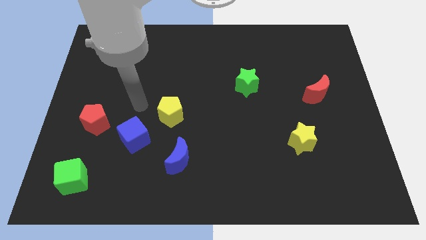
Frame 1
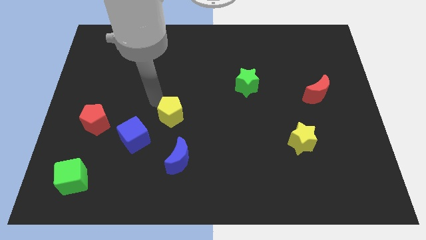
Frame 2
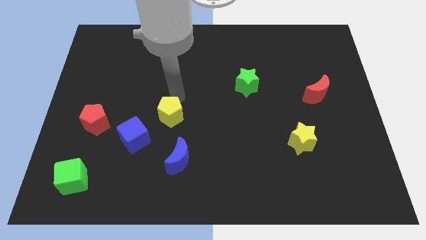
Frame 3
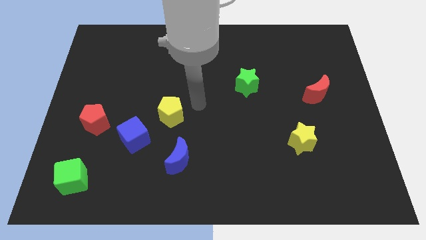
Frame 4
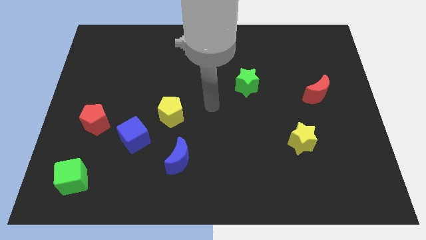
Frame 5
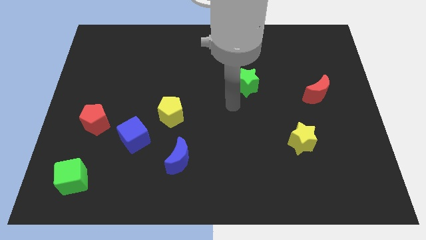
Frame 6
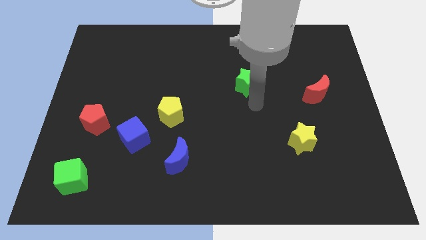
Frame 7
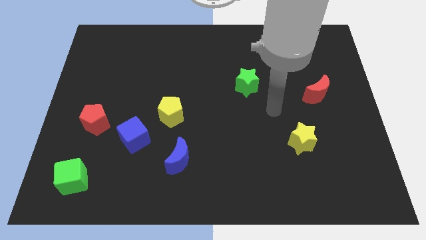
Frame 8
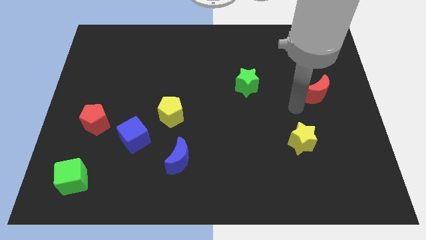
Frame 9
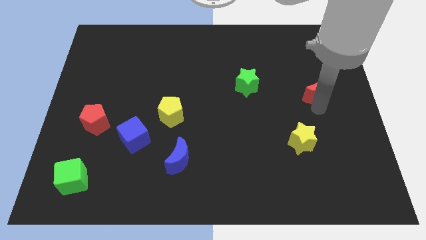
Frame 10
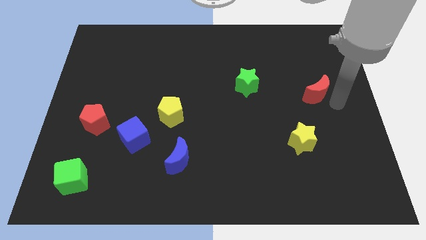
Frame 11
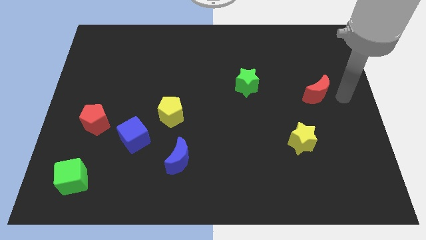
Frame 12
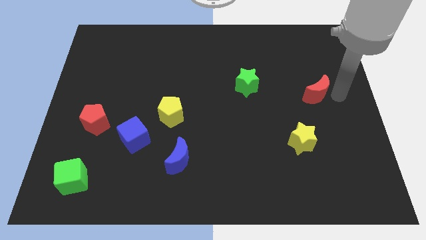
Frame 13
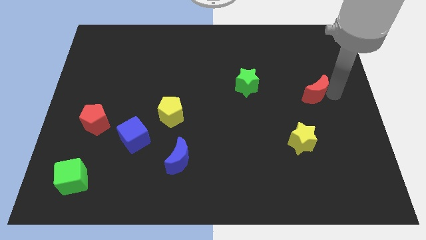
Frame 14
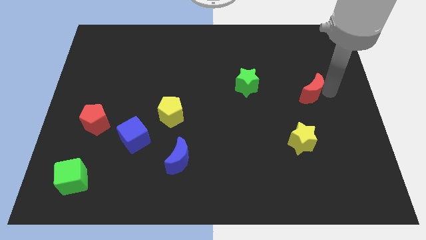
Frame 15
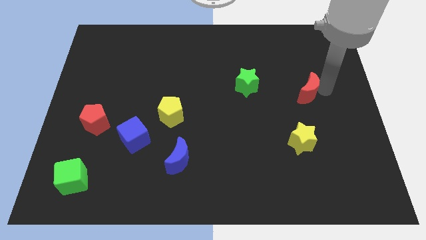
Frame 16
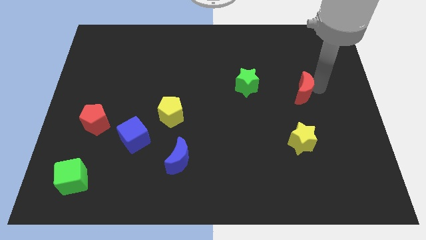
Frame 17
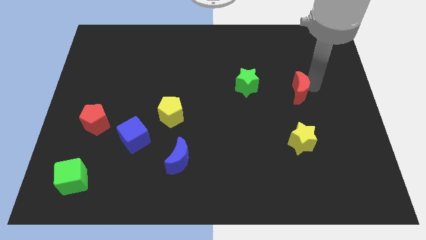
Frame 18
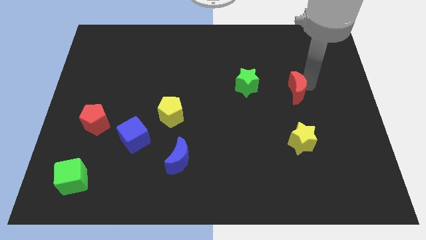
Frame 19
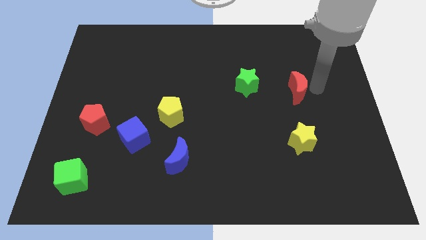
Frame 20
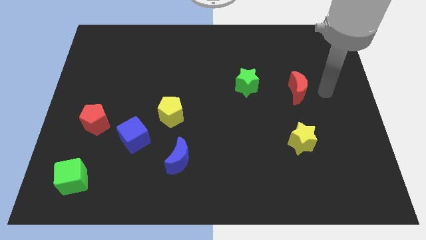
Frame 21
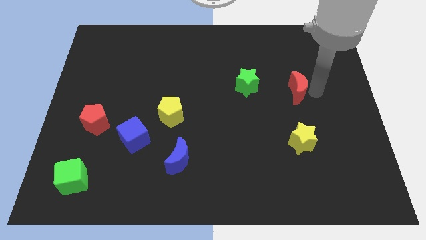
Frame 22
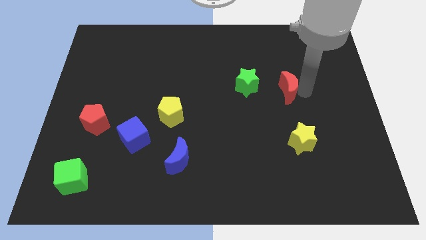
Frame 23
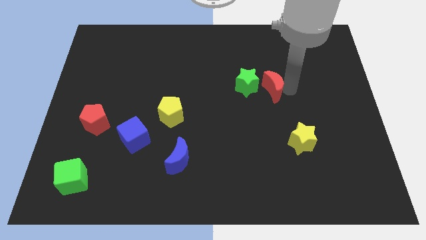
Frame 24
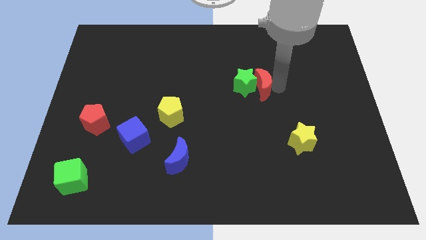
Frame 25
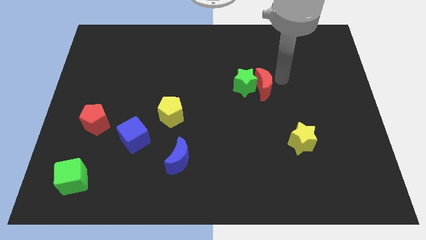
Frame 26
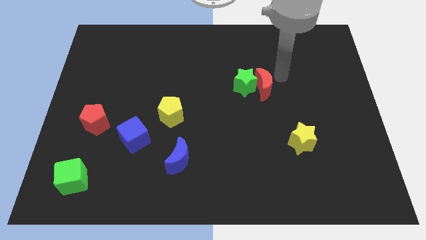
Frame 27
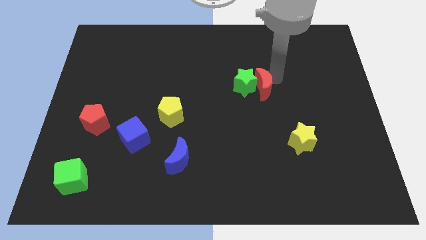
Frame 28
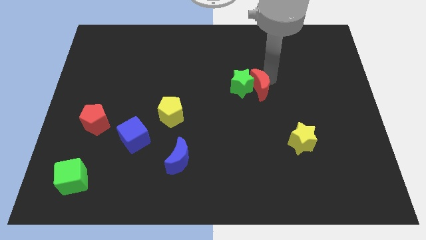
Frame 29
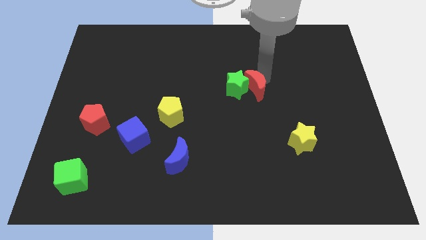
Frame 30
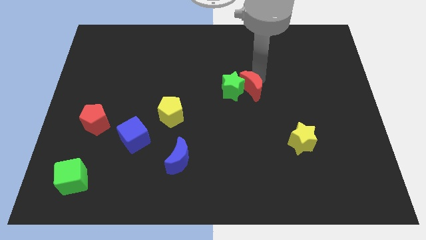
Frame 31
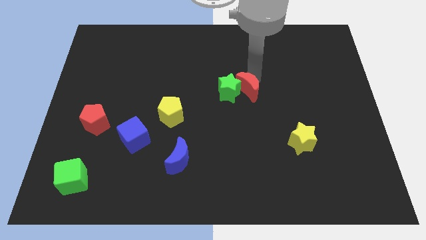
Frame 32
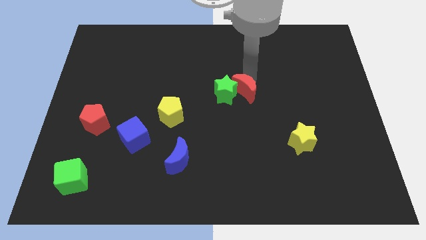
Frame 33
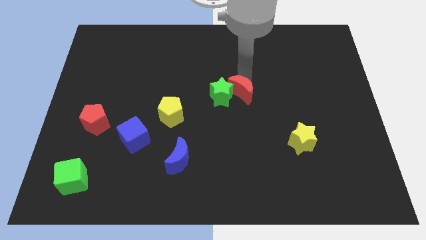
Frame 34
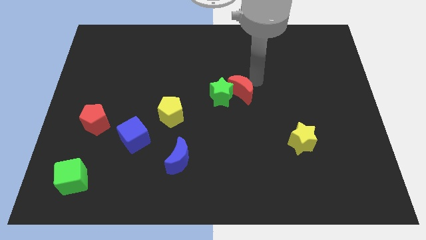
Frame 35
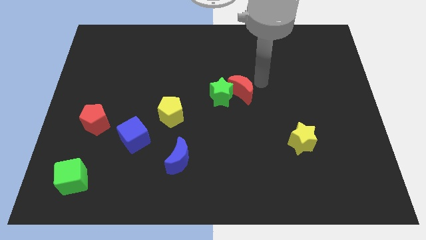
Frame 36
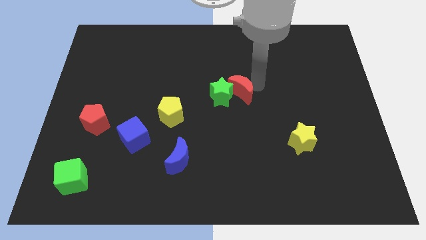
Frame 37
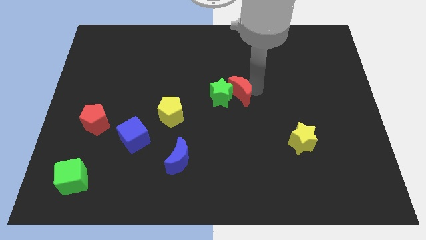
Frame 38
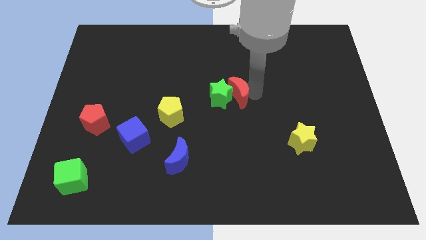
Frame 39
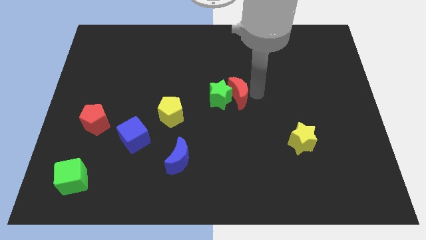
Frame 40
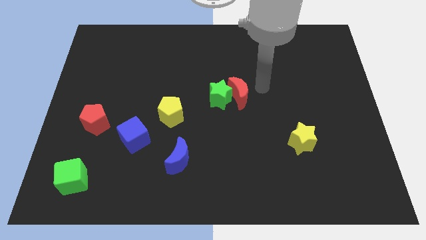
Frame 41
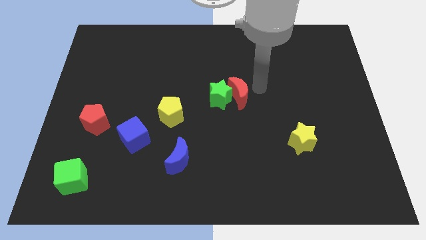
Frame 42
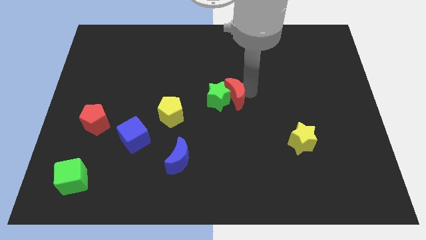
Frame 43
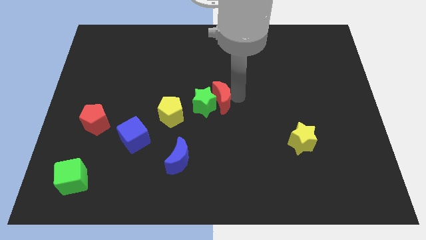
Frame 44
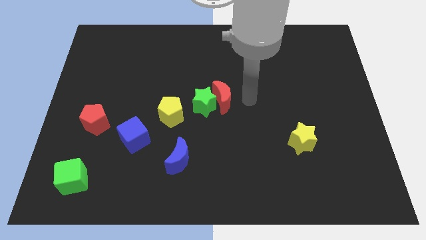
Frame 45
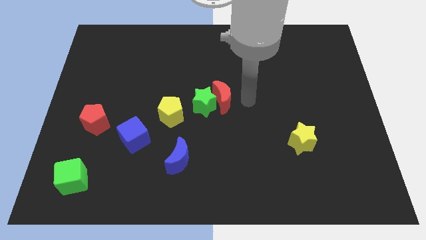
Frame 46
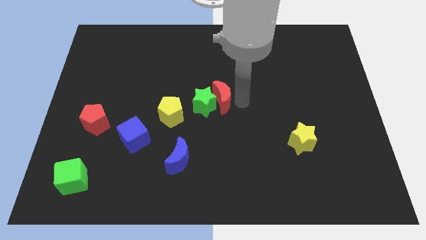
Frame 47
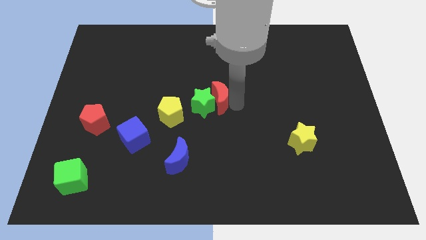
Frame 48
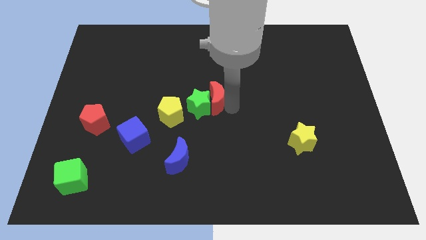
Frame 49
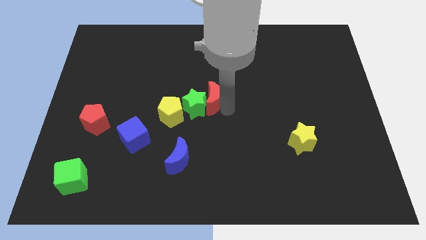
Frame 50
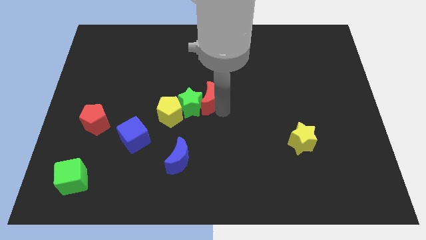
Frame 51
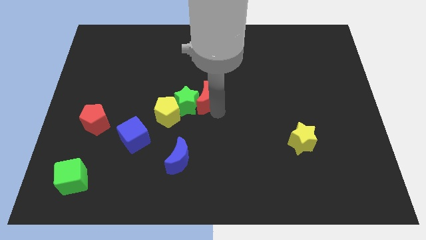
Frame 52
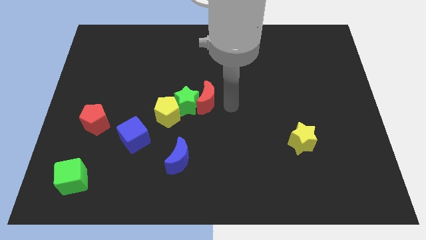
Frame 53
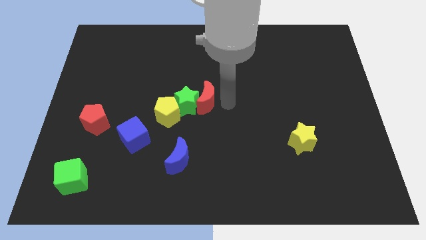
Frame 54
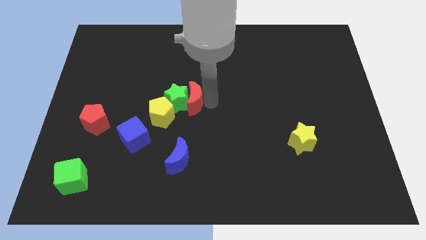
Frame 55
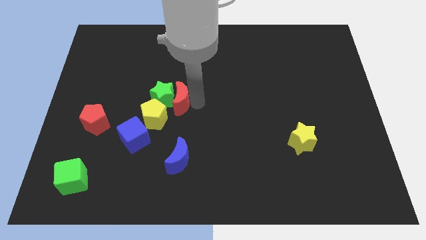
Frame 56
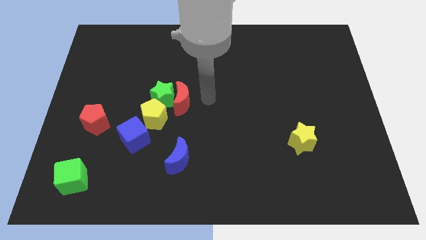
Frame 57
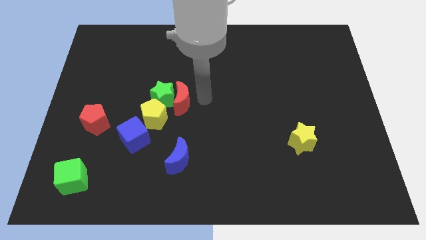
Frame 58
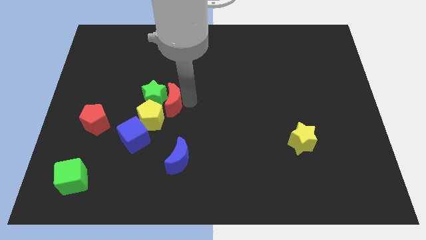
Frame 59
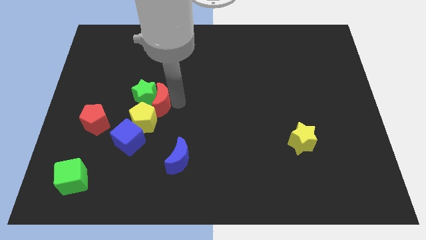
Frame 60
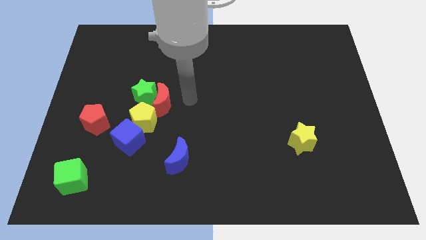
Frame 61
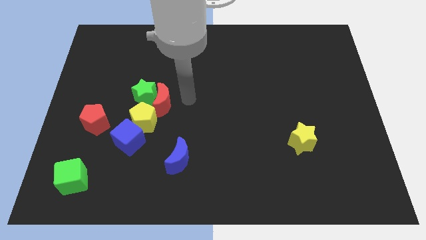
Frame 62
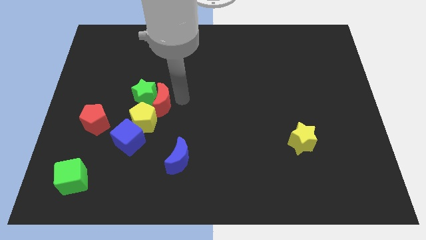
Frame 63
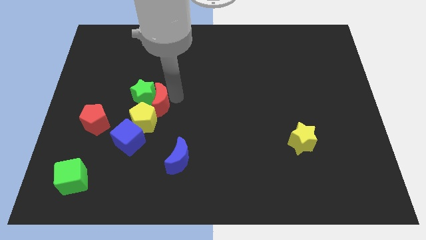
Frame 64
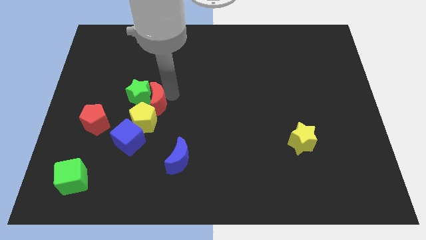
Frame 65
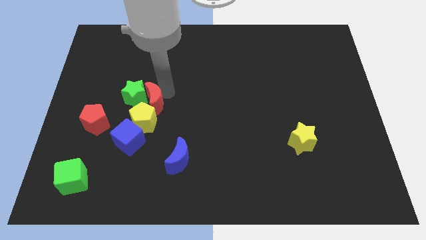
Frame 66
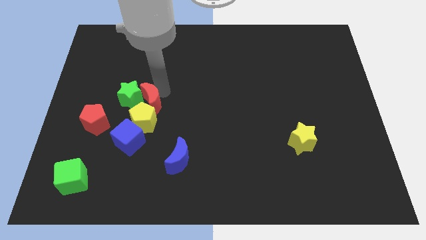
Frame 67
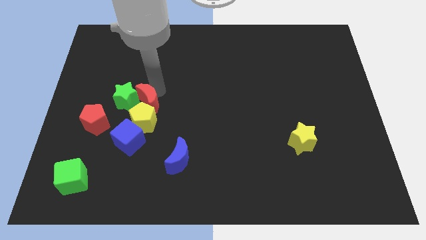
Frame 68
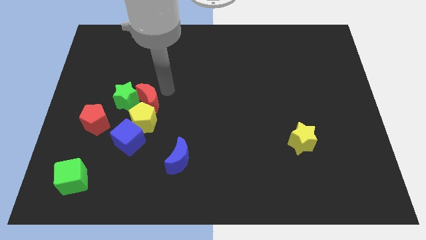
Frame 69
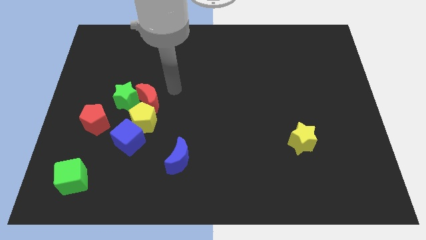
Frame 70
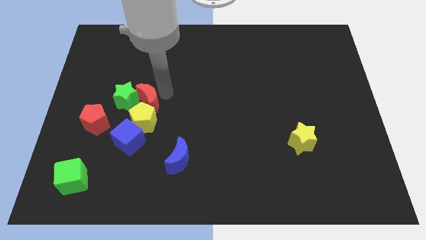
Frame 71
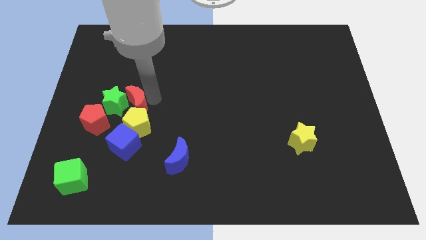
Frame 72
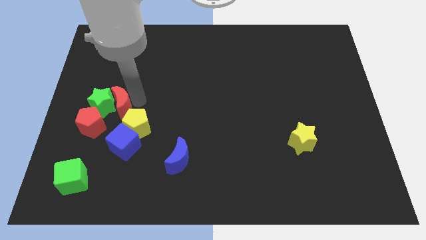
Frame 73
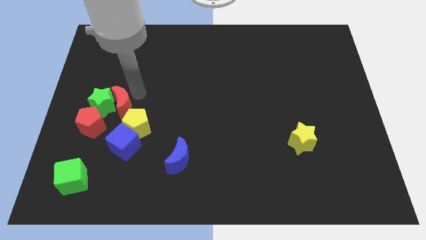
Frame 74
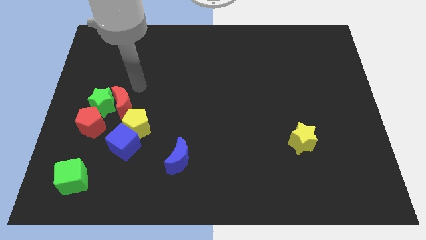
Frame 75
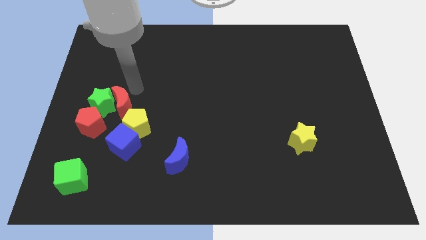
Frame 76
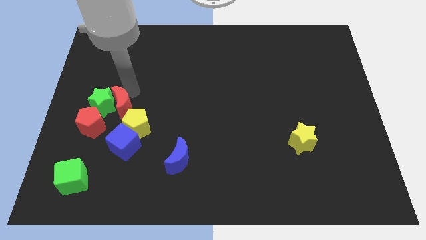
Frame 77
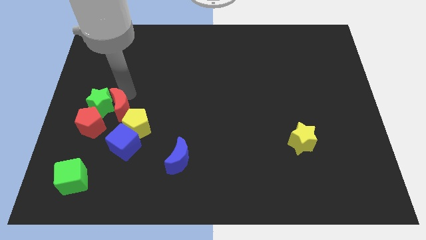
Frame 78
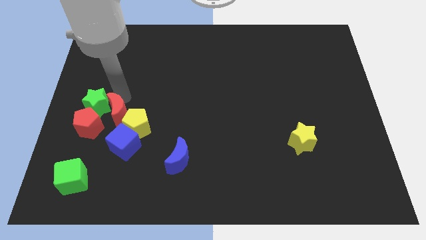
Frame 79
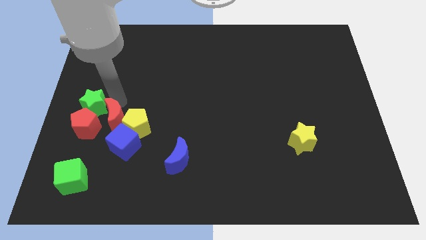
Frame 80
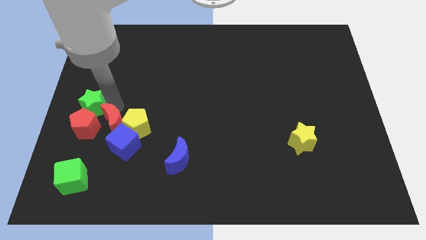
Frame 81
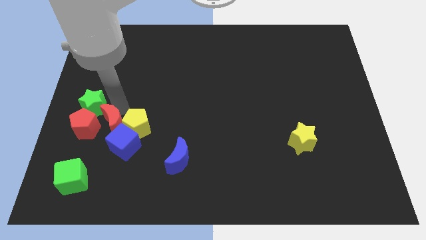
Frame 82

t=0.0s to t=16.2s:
slide the red moon next to the red pentagon

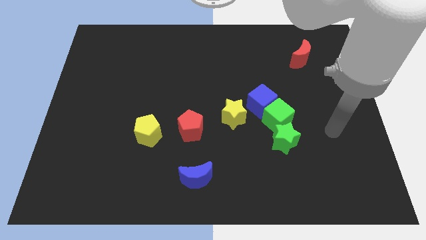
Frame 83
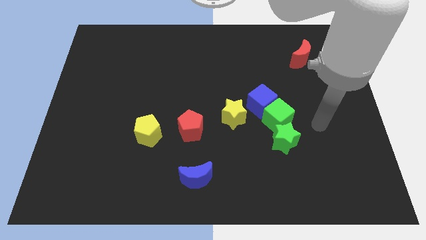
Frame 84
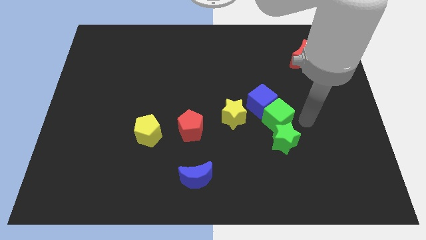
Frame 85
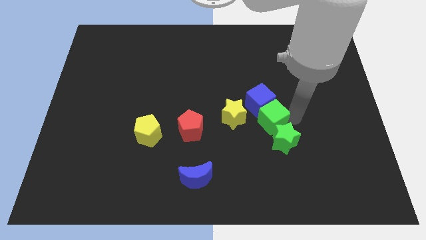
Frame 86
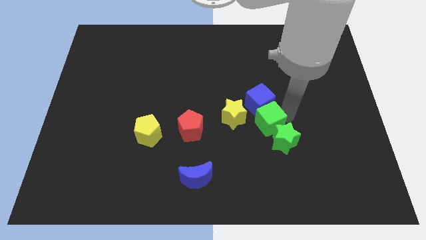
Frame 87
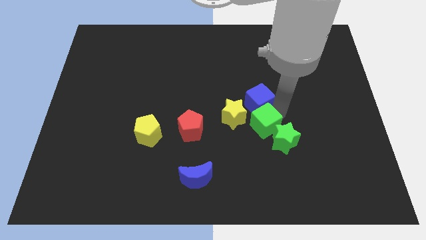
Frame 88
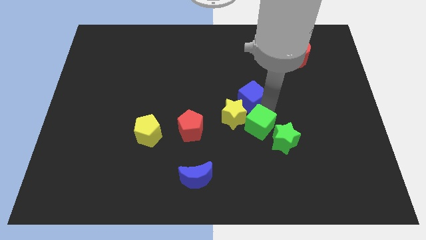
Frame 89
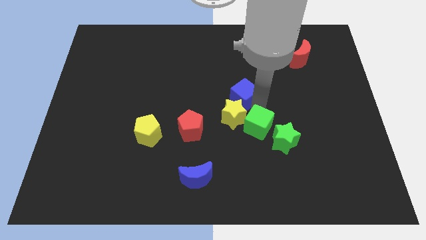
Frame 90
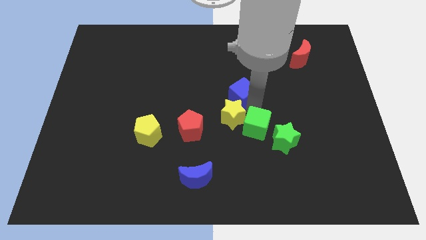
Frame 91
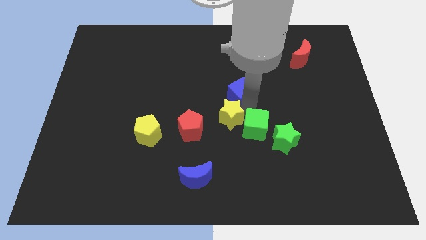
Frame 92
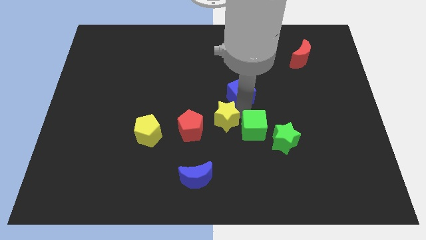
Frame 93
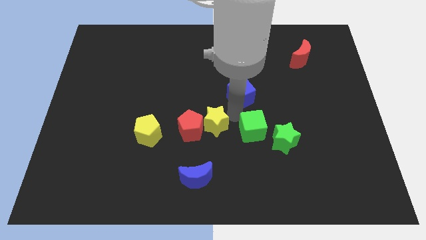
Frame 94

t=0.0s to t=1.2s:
slide the yellow star close to the red pentagon
